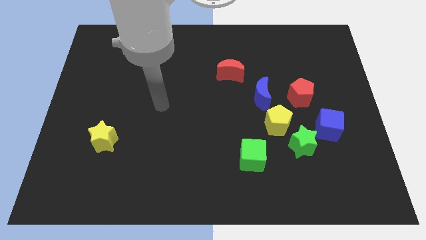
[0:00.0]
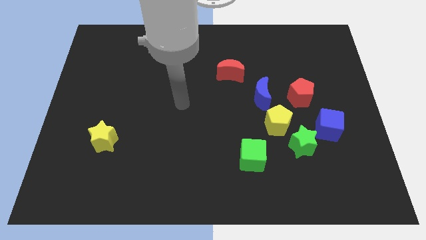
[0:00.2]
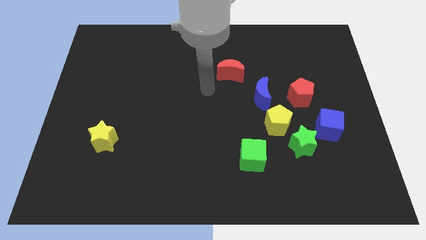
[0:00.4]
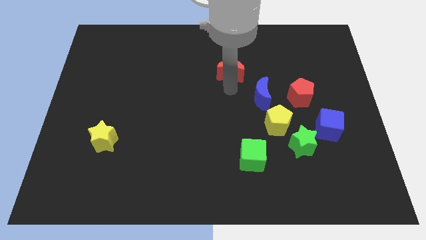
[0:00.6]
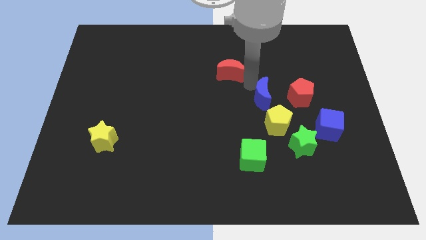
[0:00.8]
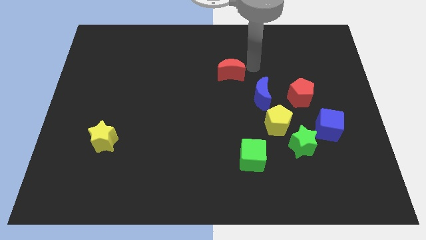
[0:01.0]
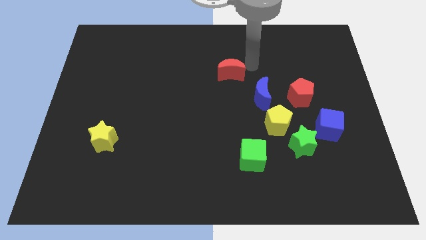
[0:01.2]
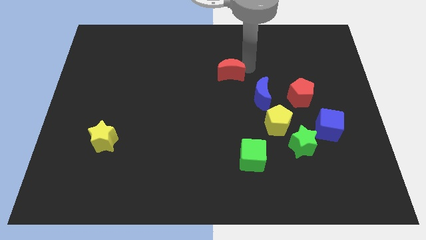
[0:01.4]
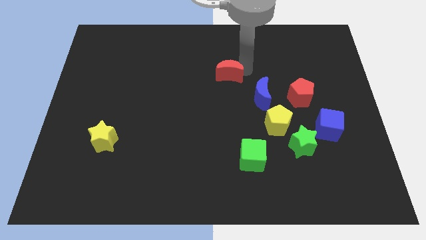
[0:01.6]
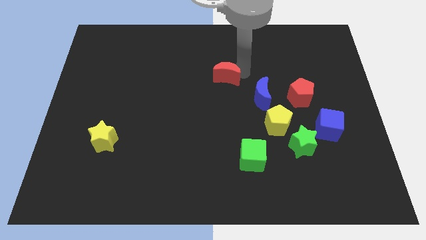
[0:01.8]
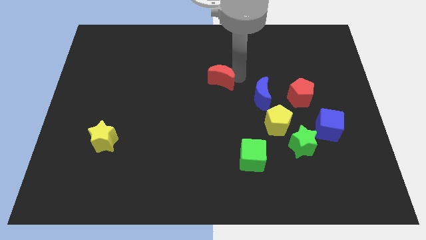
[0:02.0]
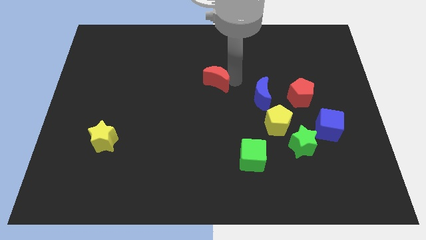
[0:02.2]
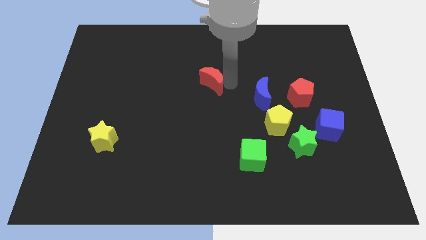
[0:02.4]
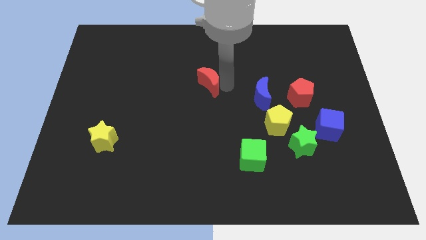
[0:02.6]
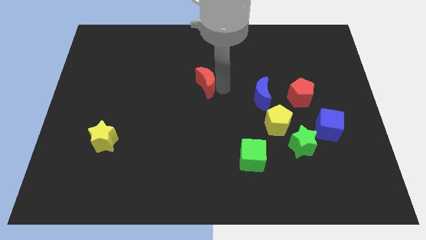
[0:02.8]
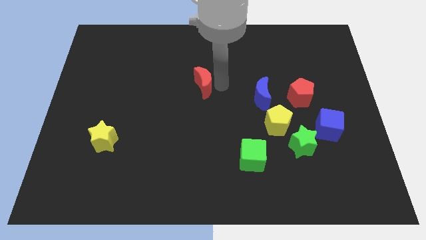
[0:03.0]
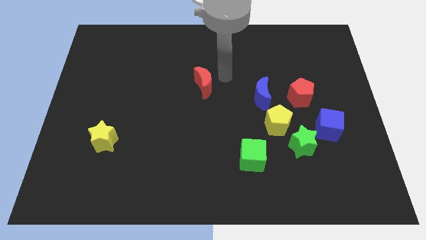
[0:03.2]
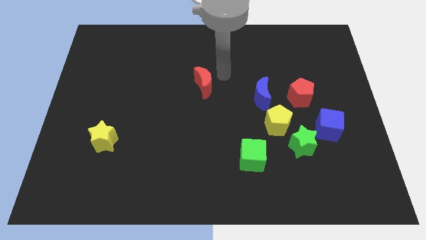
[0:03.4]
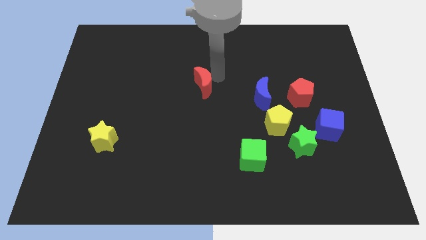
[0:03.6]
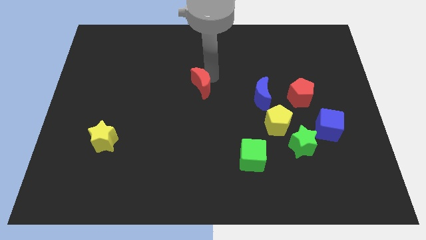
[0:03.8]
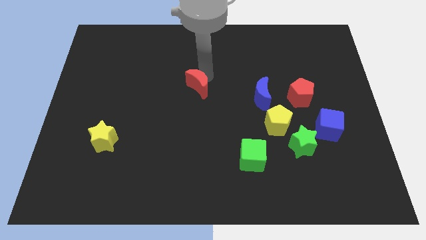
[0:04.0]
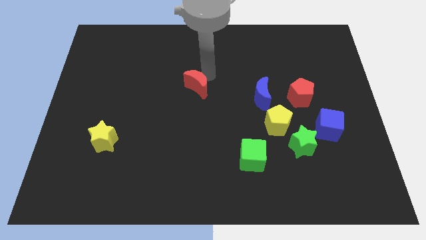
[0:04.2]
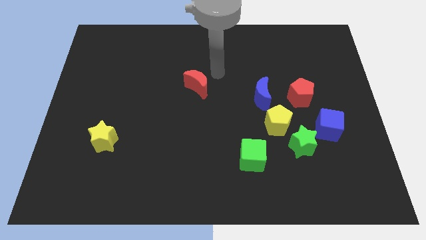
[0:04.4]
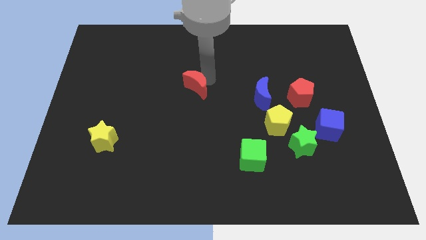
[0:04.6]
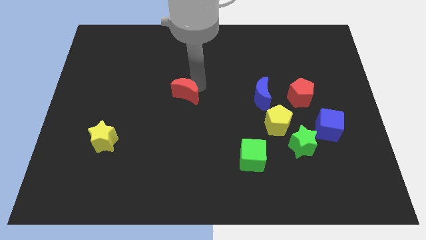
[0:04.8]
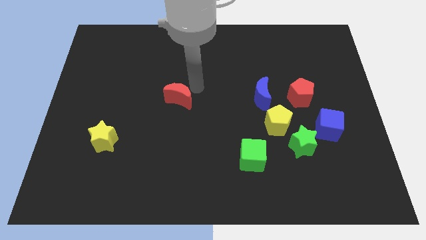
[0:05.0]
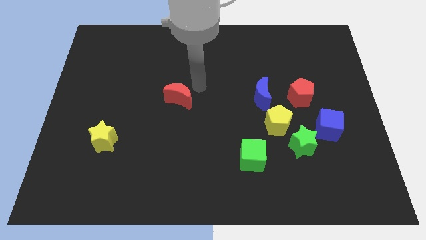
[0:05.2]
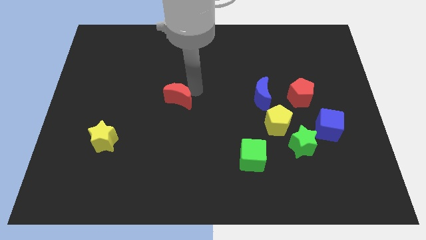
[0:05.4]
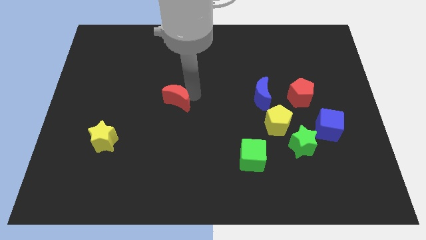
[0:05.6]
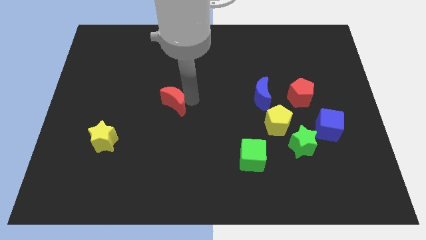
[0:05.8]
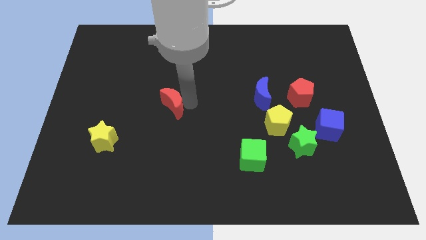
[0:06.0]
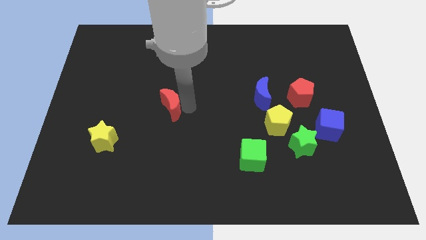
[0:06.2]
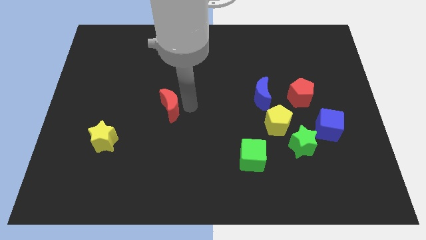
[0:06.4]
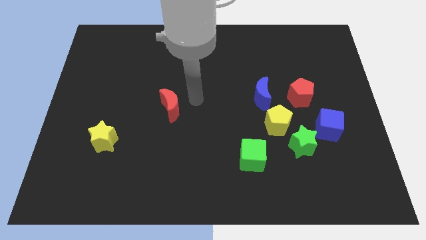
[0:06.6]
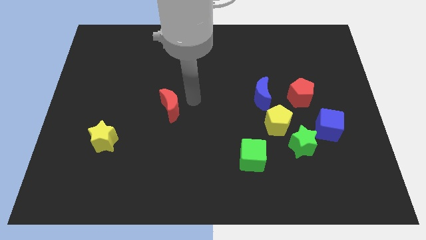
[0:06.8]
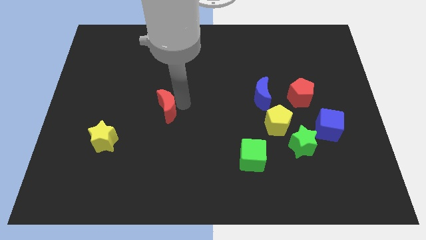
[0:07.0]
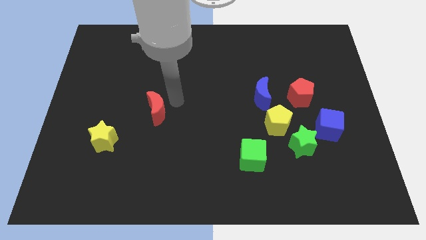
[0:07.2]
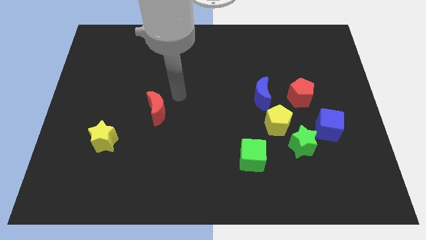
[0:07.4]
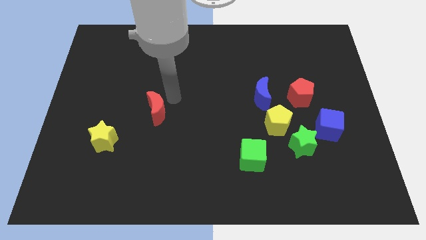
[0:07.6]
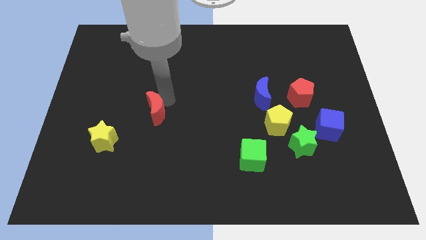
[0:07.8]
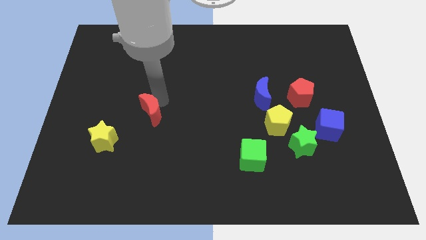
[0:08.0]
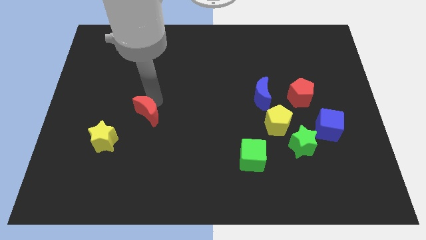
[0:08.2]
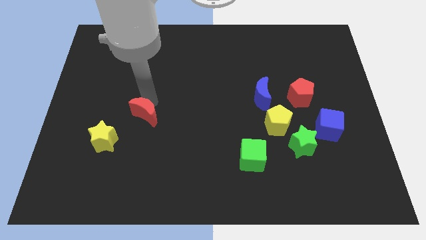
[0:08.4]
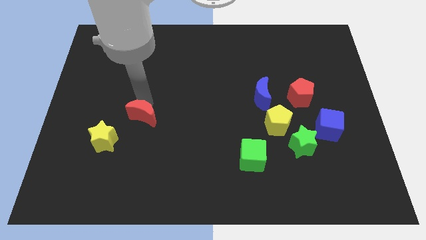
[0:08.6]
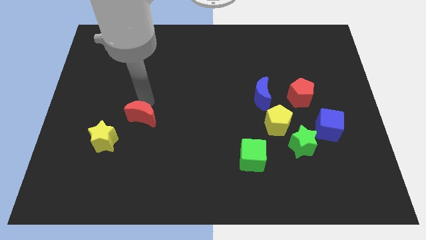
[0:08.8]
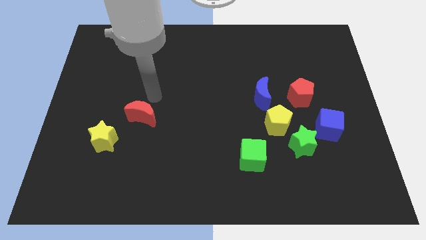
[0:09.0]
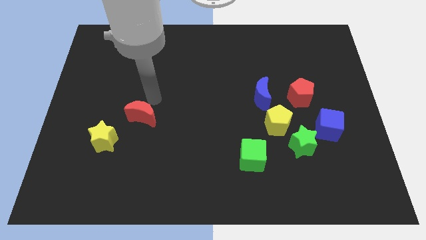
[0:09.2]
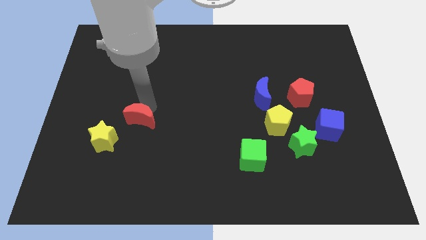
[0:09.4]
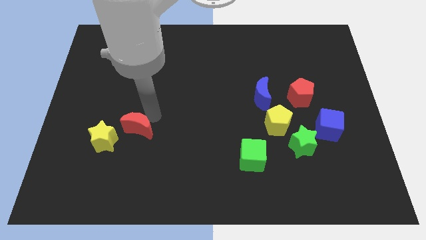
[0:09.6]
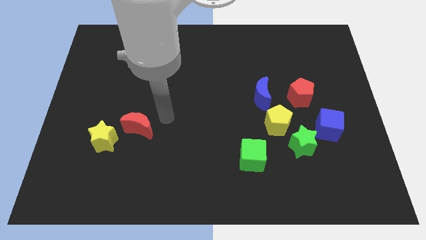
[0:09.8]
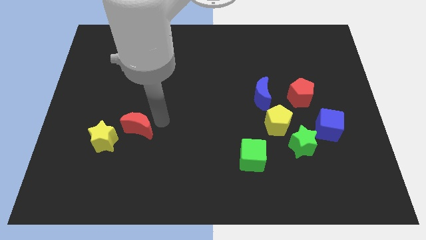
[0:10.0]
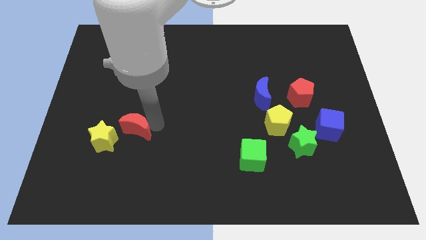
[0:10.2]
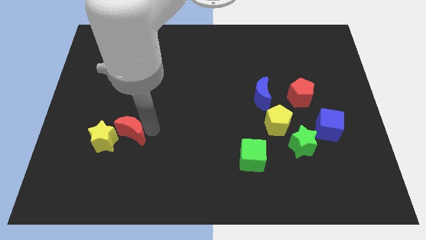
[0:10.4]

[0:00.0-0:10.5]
push the red moon towards the yellow star

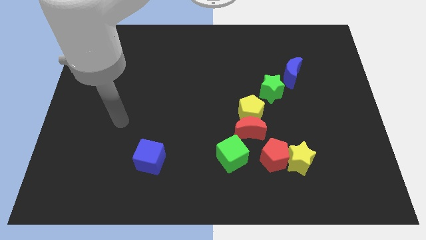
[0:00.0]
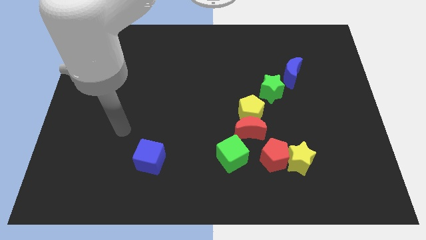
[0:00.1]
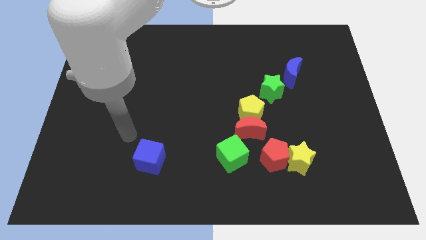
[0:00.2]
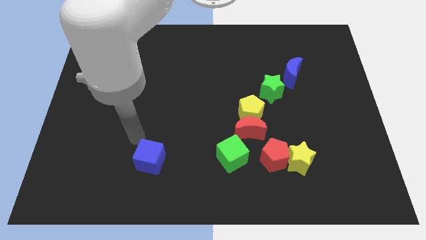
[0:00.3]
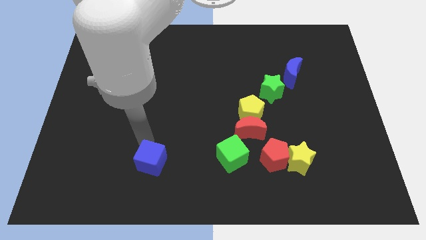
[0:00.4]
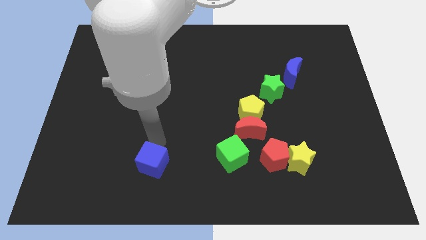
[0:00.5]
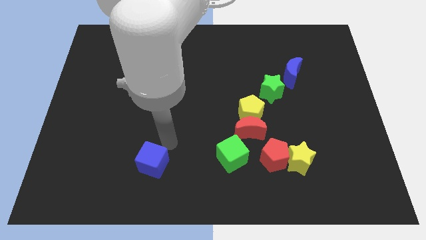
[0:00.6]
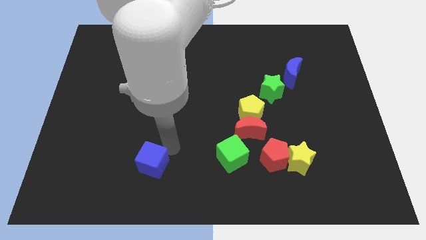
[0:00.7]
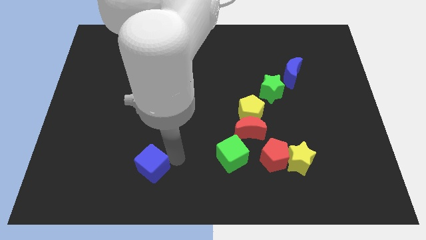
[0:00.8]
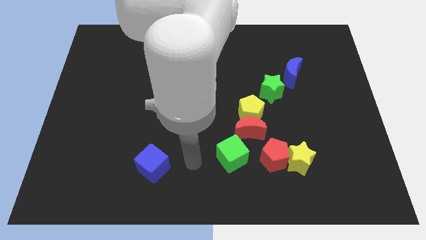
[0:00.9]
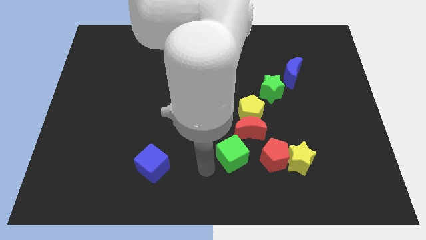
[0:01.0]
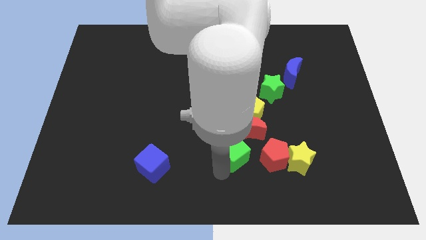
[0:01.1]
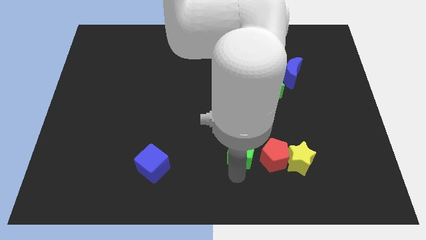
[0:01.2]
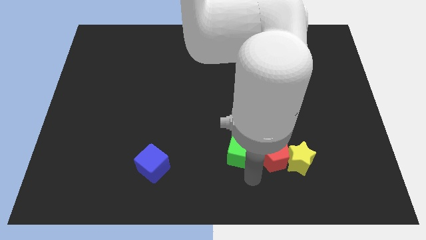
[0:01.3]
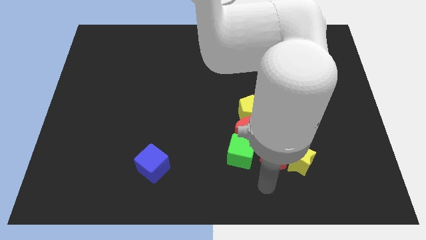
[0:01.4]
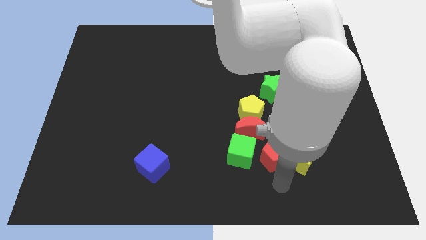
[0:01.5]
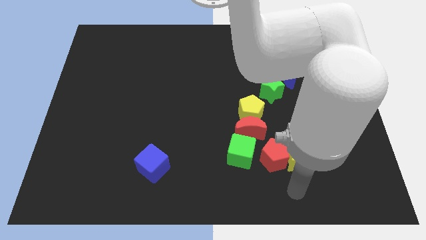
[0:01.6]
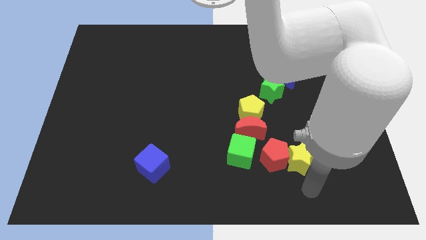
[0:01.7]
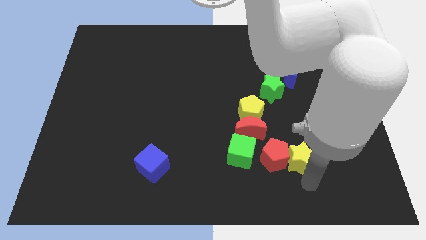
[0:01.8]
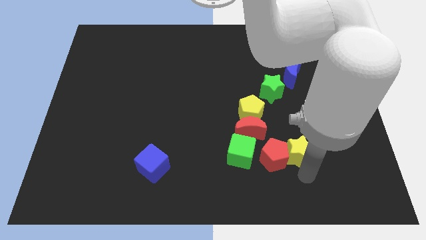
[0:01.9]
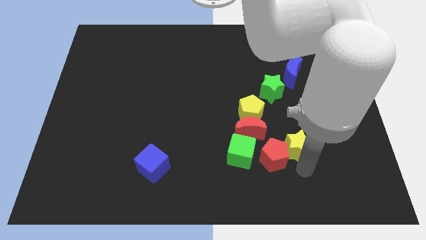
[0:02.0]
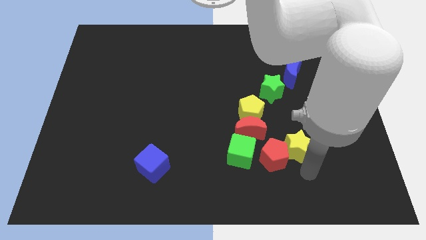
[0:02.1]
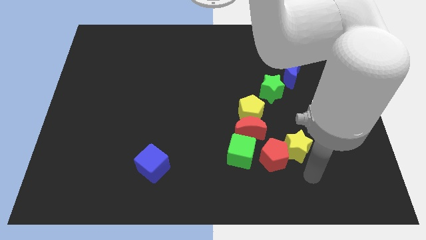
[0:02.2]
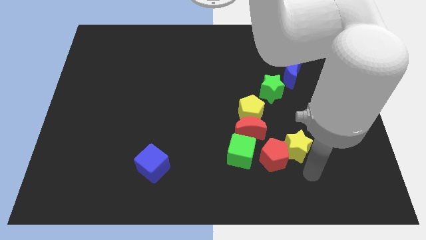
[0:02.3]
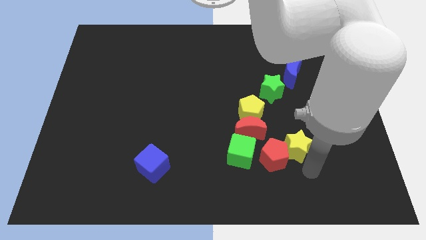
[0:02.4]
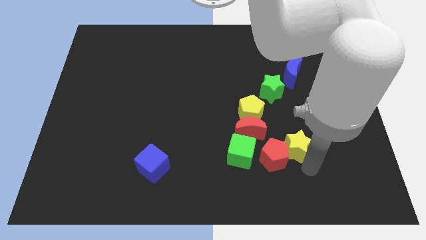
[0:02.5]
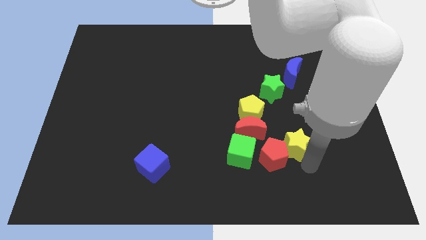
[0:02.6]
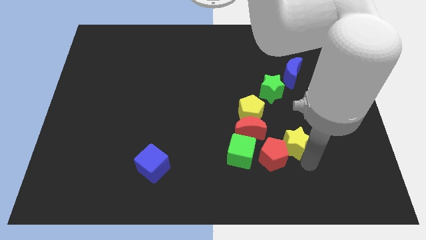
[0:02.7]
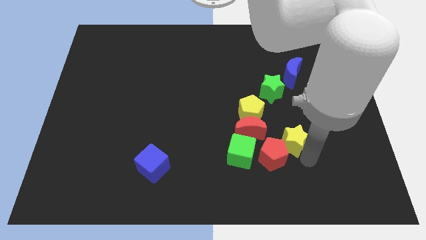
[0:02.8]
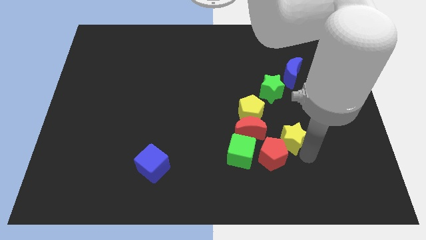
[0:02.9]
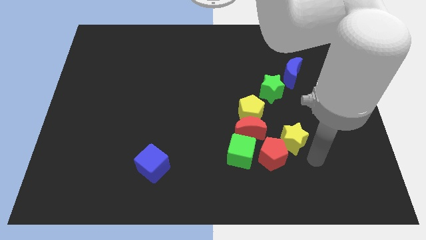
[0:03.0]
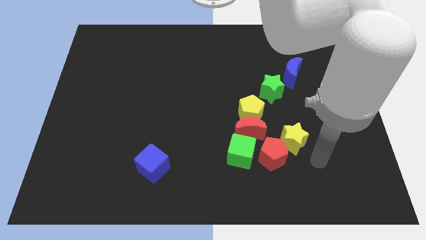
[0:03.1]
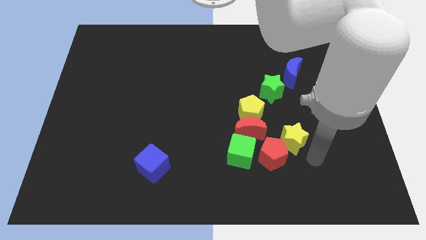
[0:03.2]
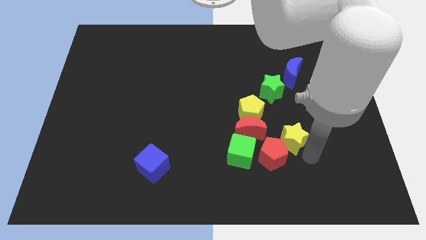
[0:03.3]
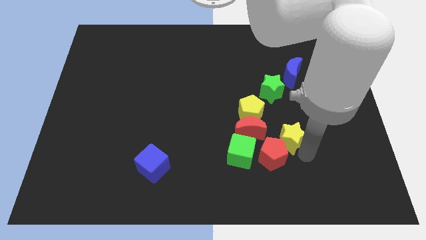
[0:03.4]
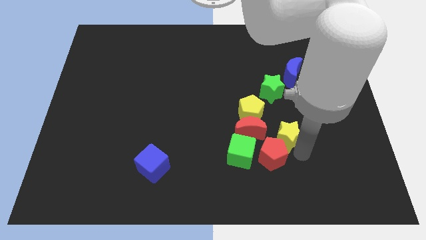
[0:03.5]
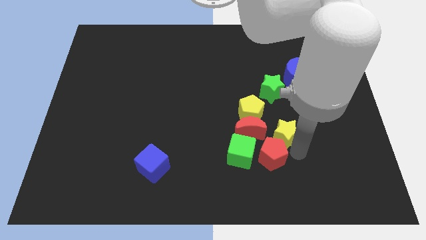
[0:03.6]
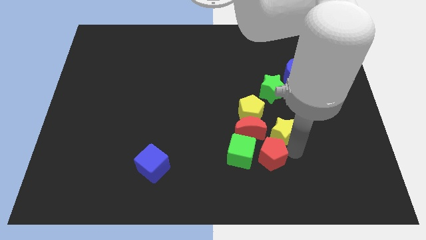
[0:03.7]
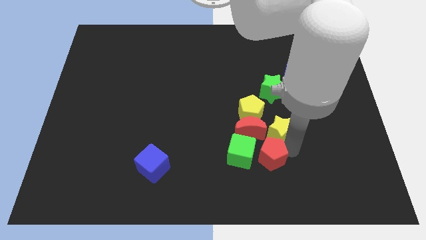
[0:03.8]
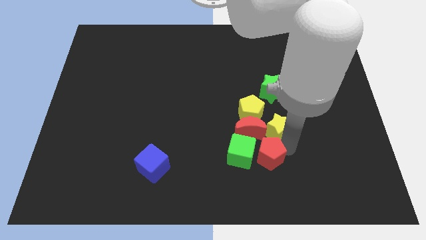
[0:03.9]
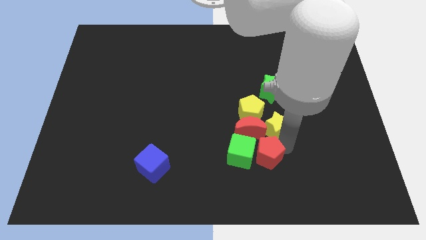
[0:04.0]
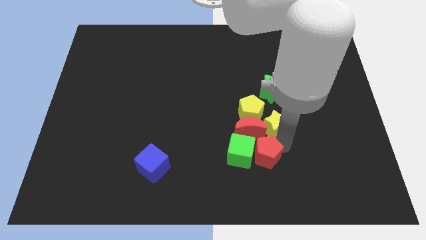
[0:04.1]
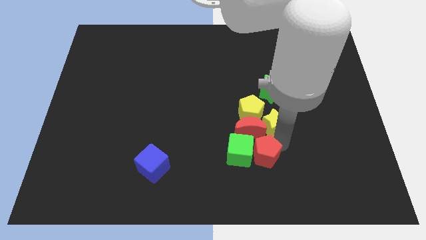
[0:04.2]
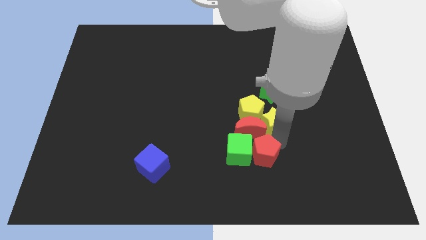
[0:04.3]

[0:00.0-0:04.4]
put the yellow star close to the yellow pentagon
